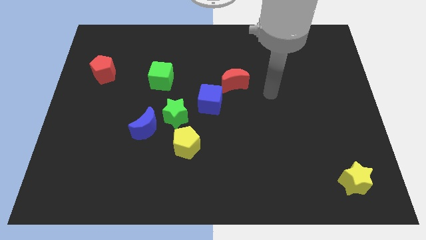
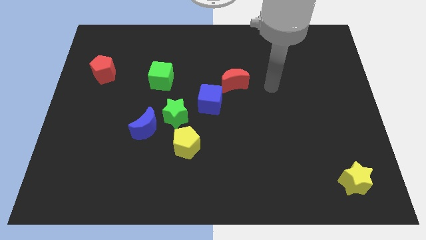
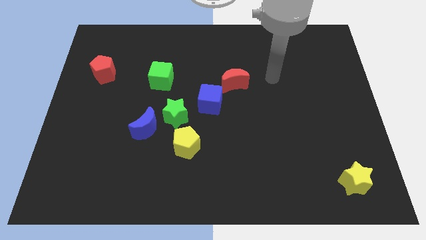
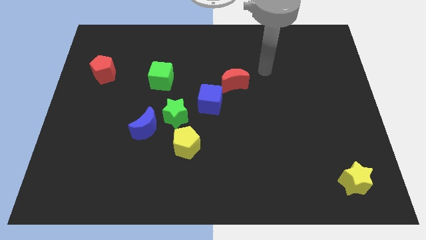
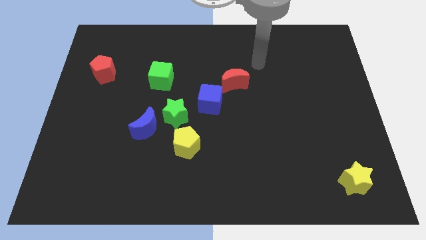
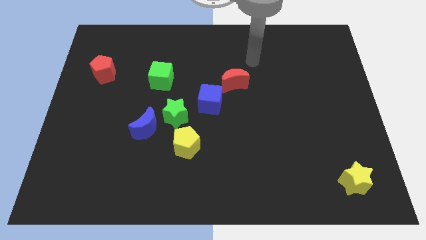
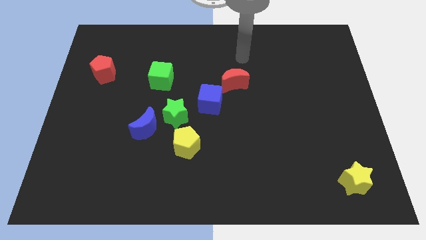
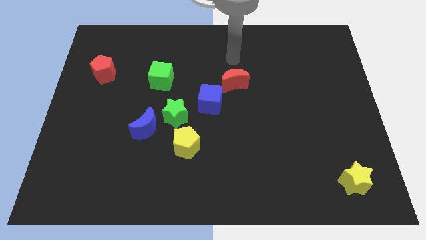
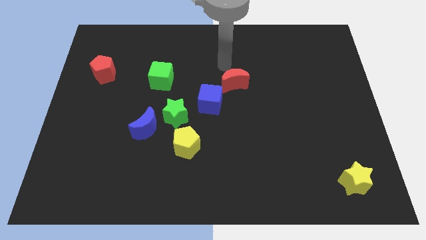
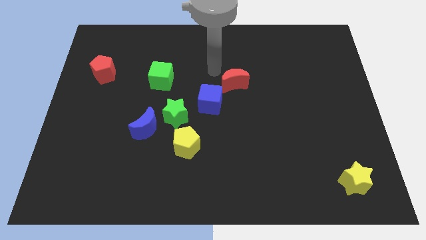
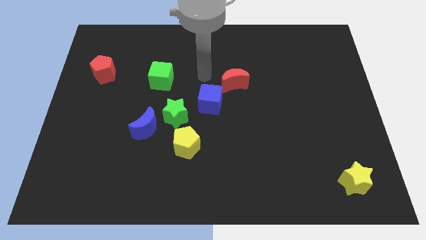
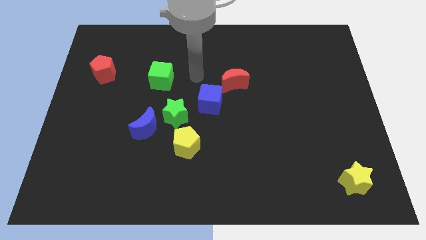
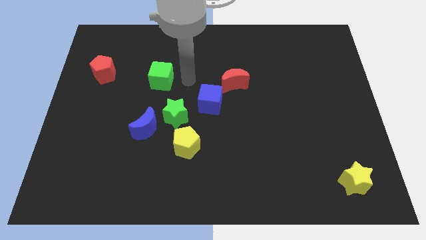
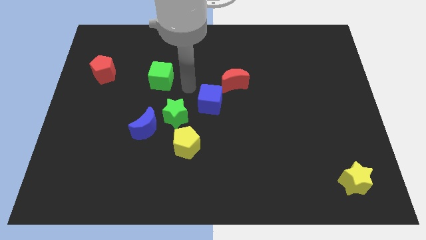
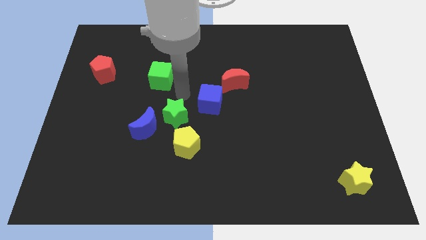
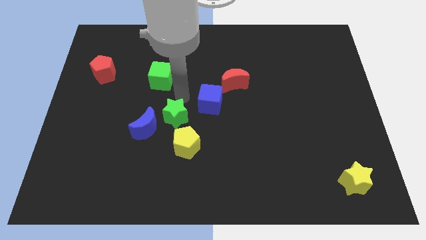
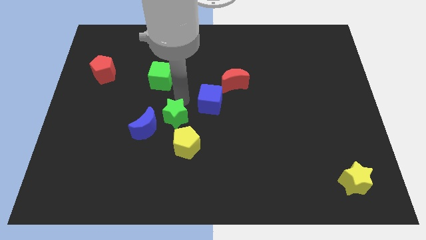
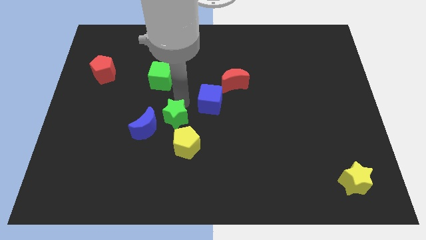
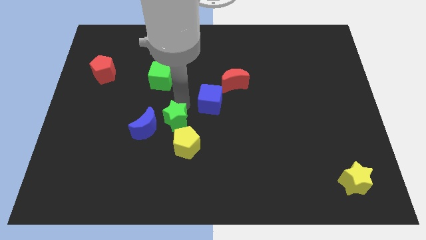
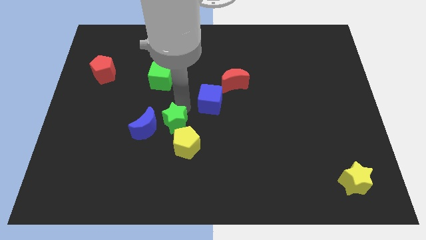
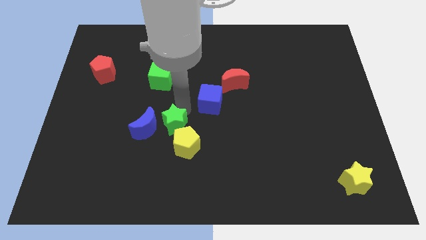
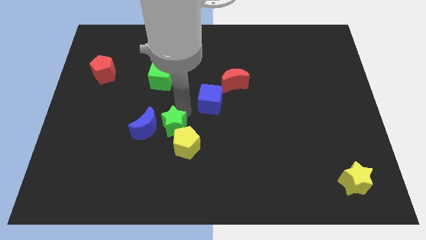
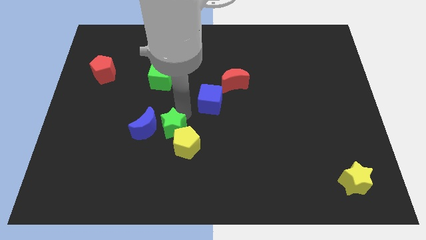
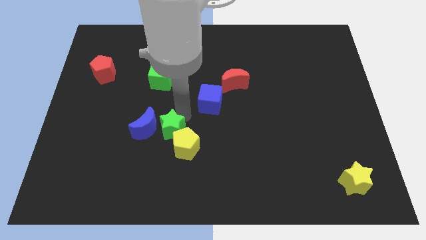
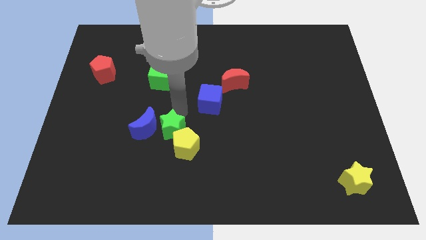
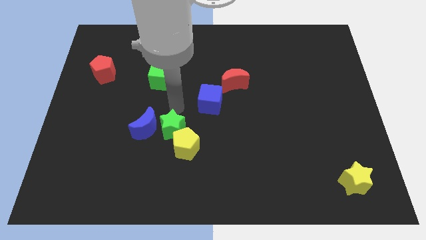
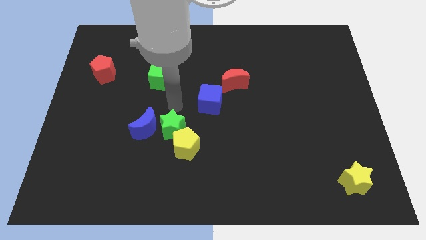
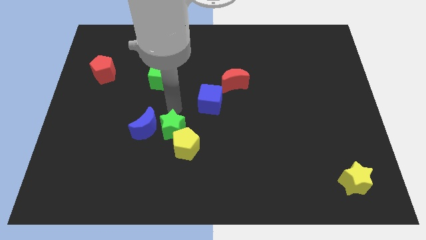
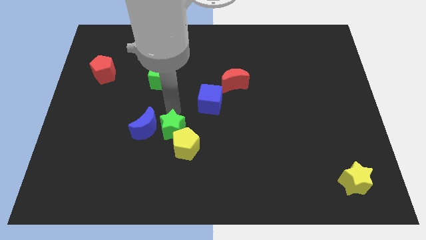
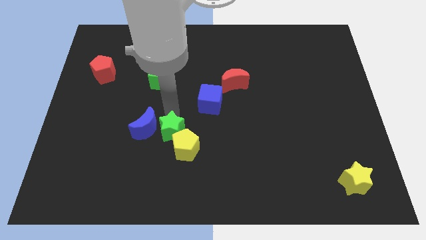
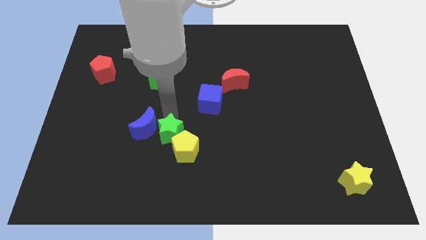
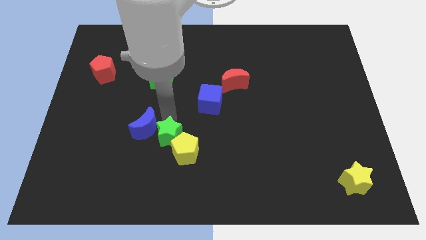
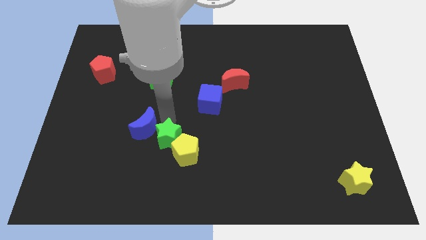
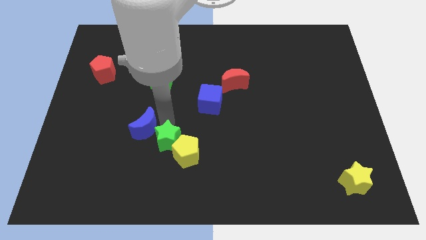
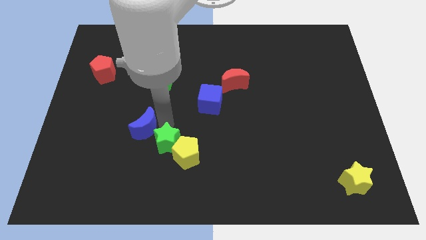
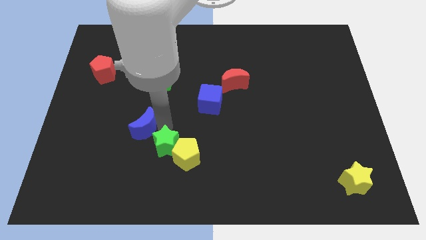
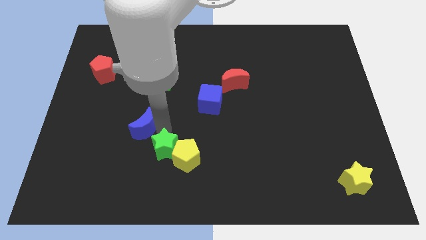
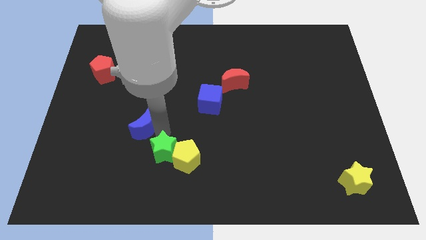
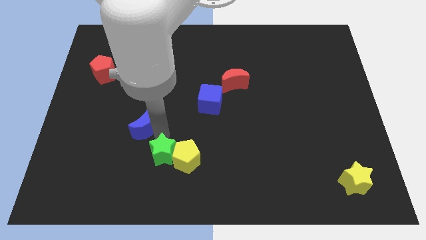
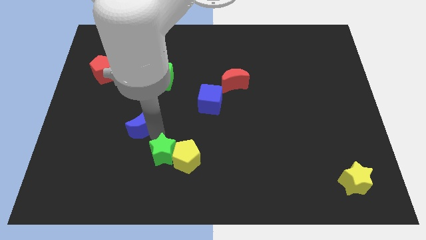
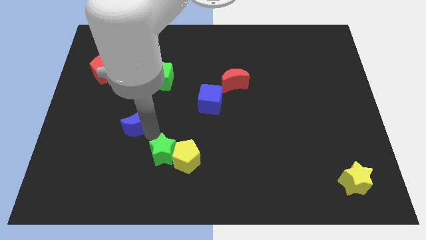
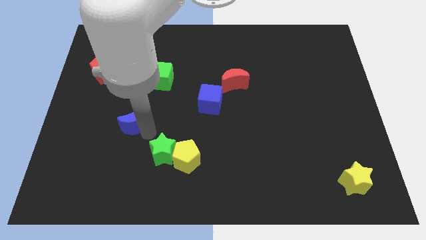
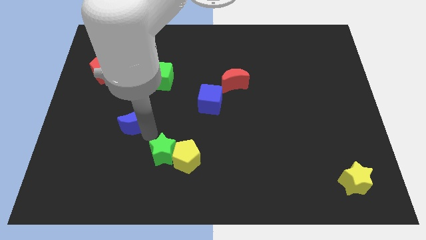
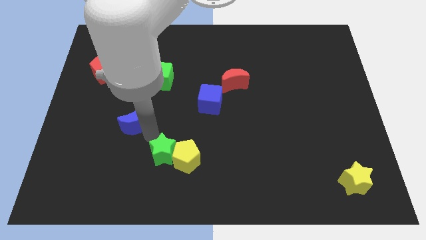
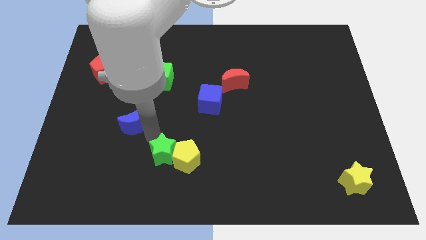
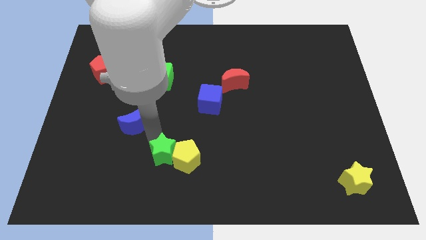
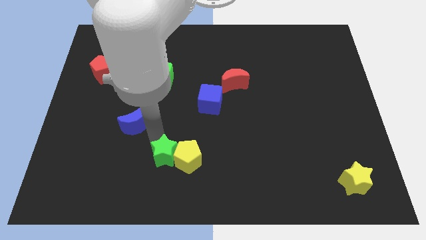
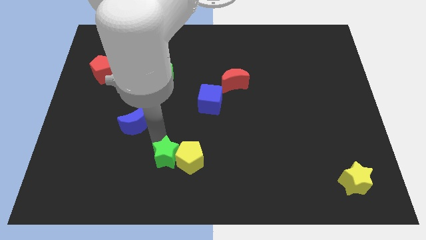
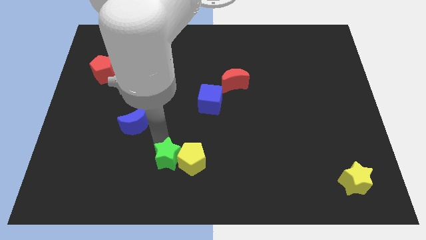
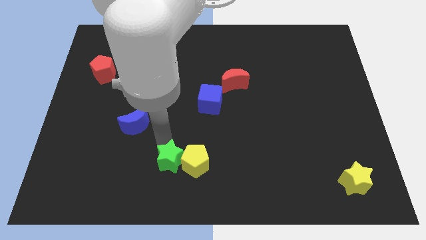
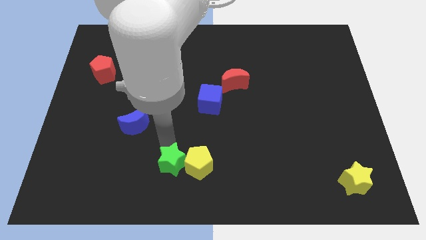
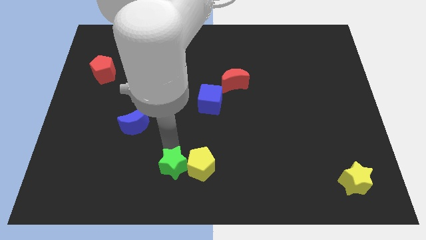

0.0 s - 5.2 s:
put the green star to the bottom side

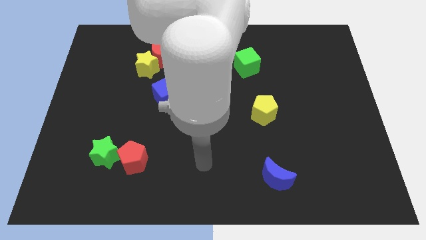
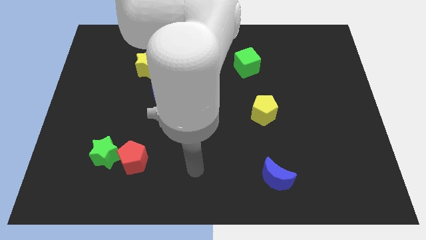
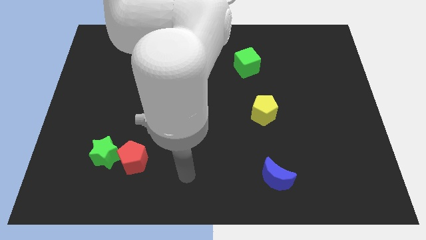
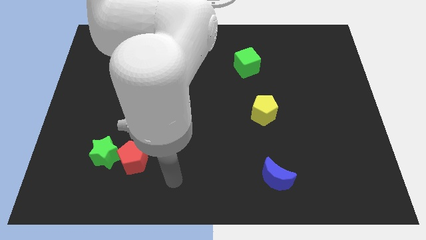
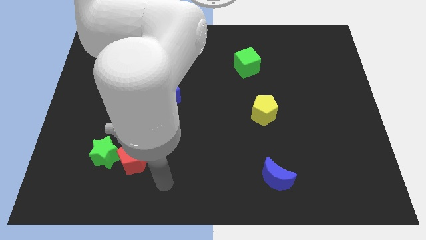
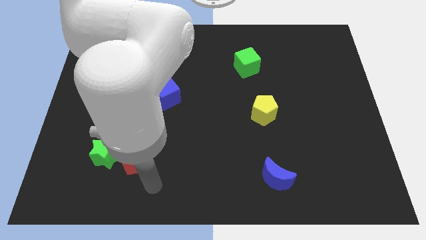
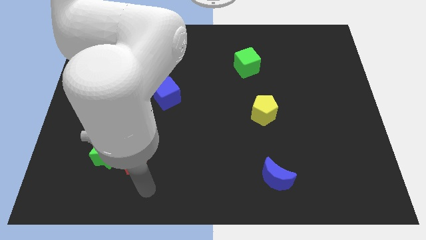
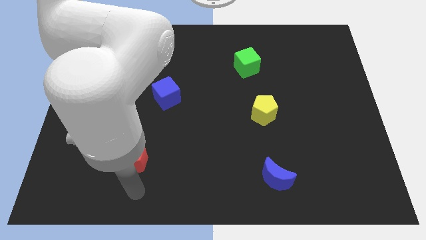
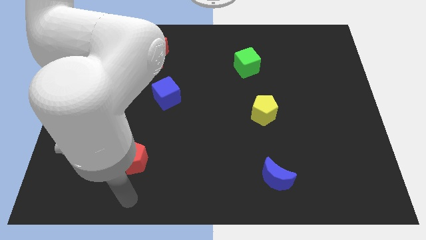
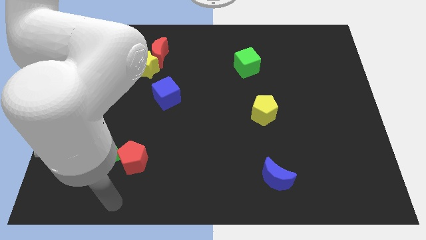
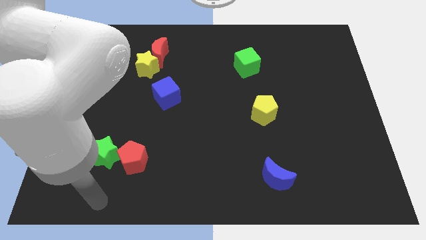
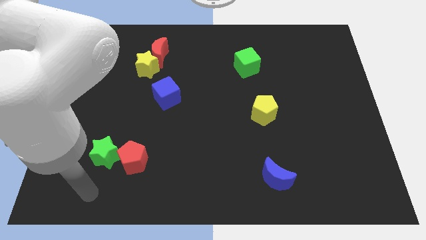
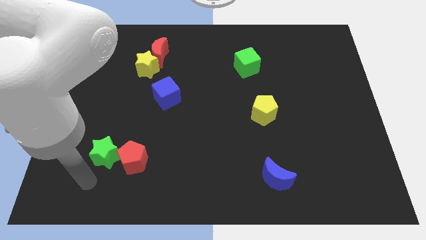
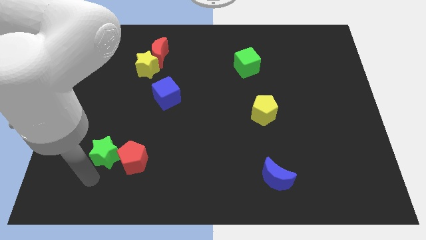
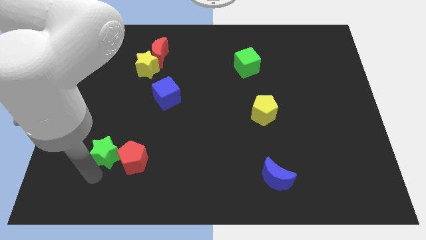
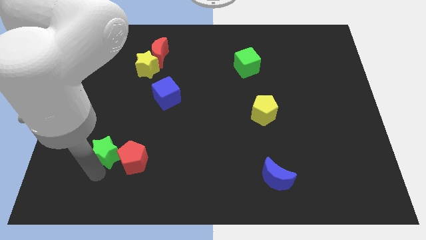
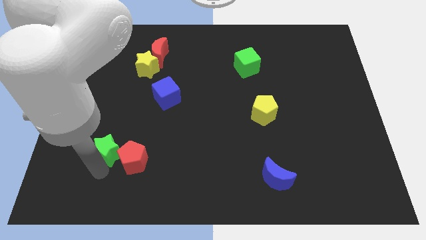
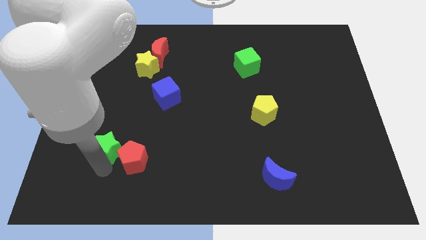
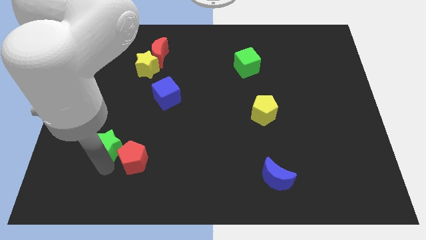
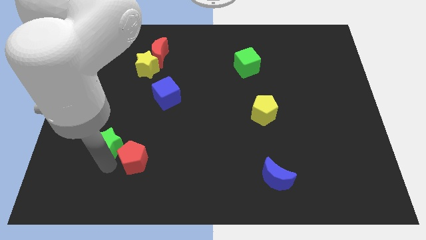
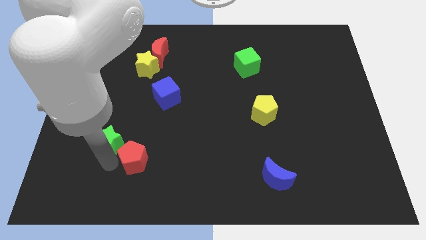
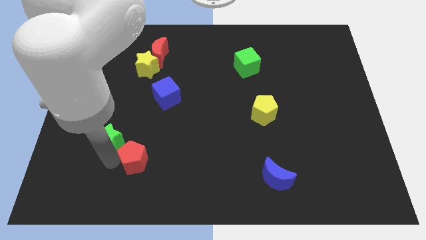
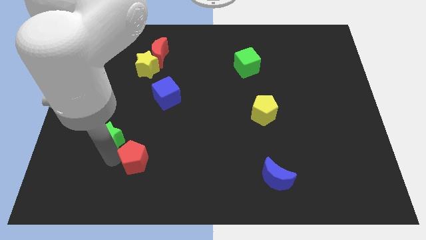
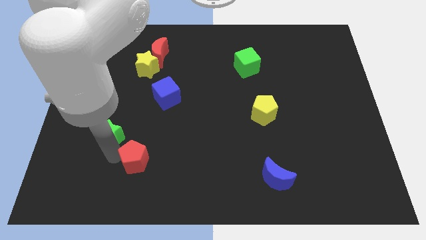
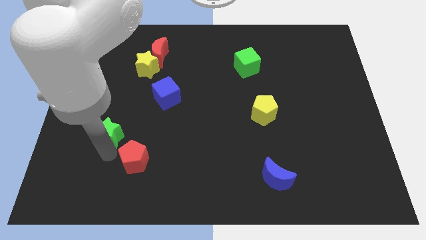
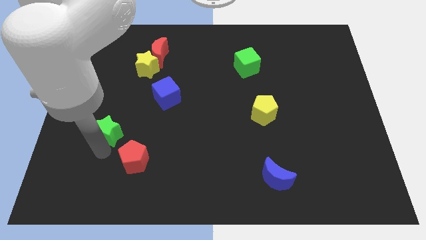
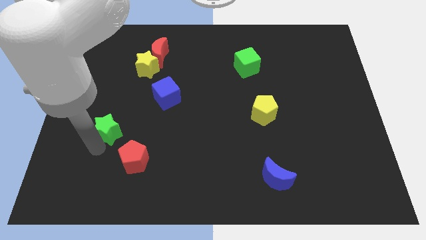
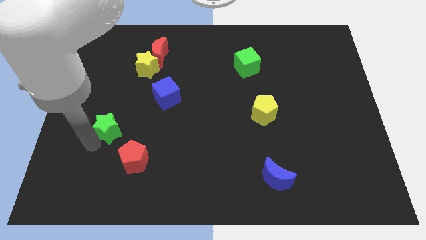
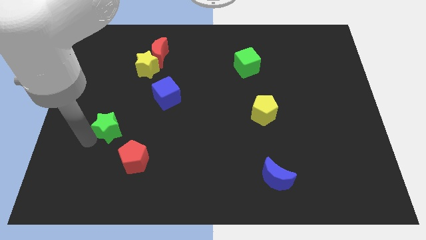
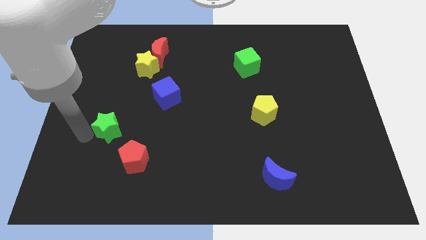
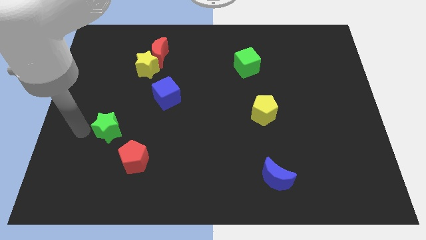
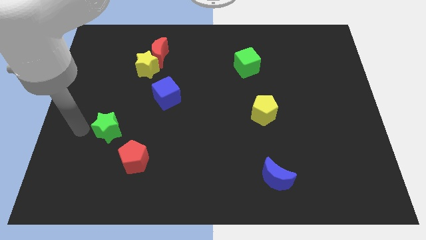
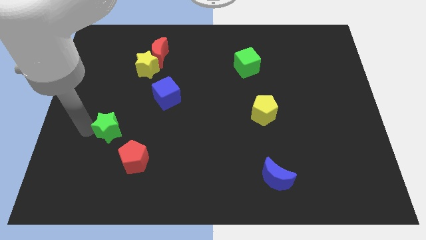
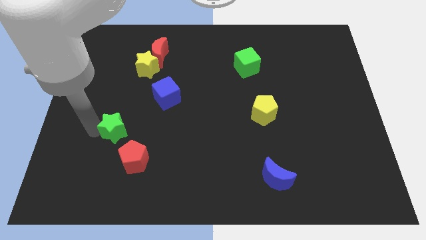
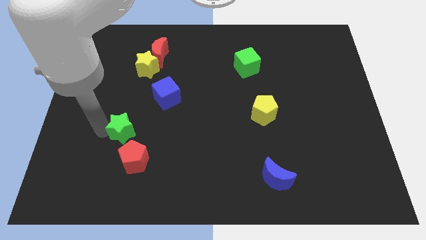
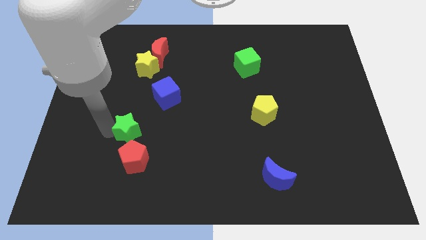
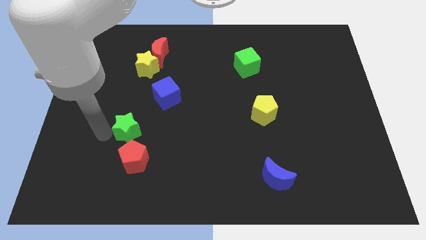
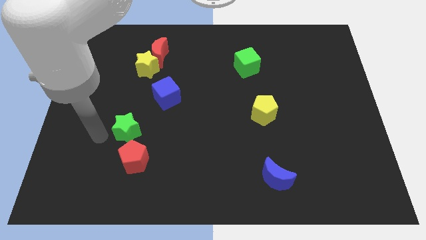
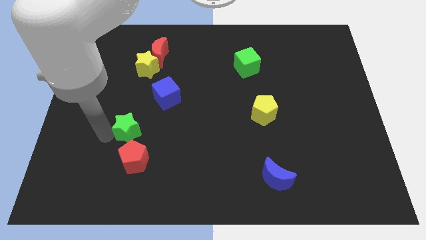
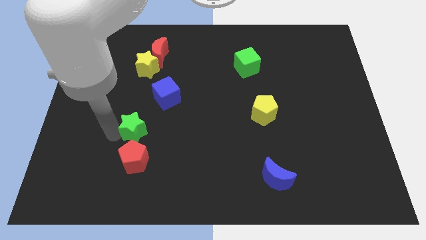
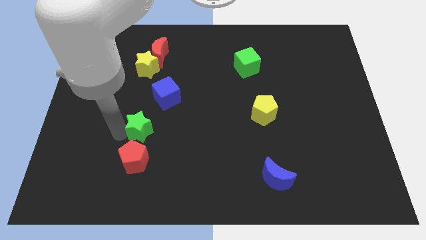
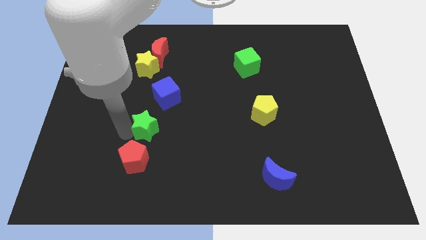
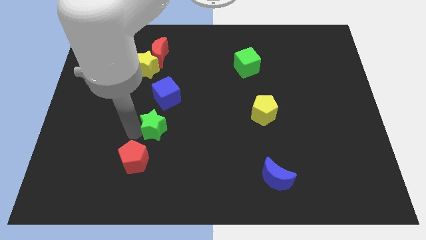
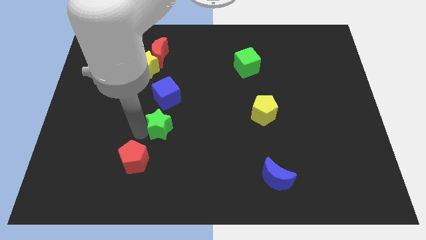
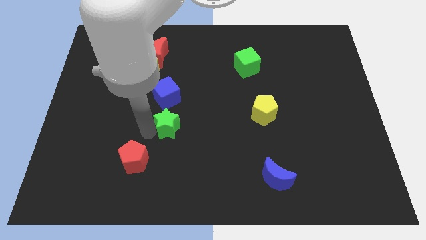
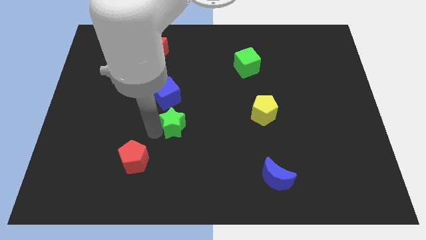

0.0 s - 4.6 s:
move the green star to the center of the board
